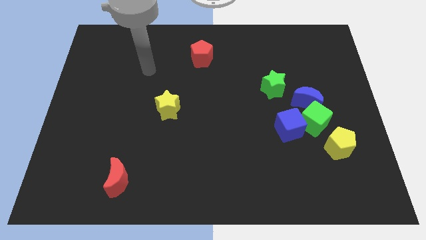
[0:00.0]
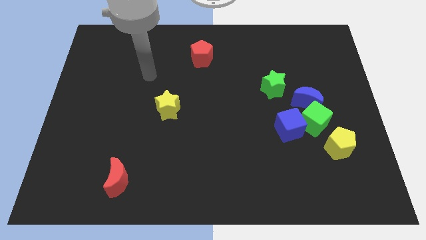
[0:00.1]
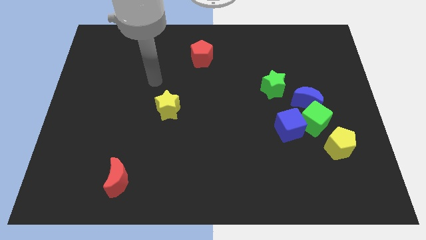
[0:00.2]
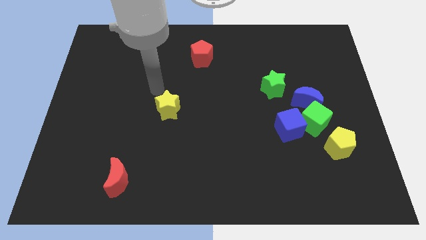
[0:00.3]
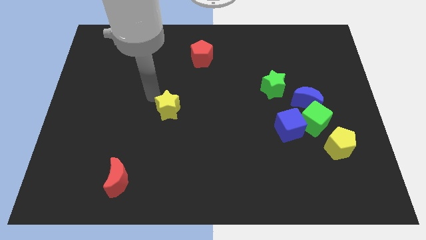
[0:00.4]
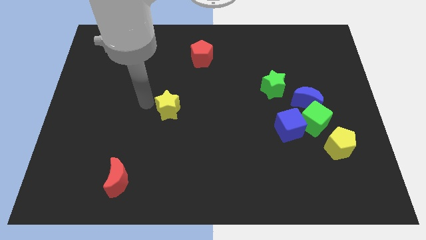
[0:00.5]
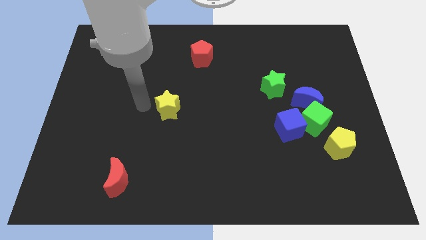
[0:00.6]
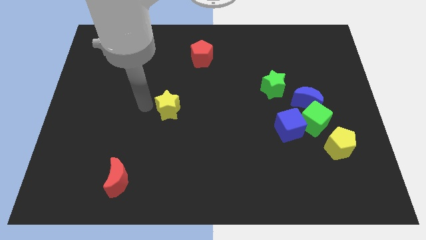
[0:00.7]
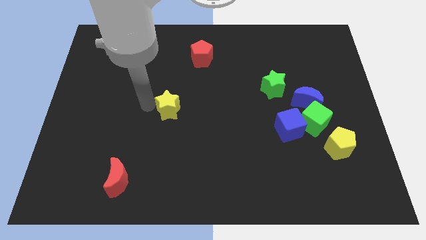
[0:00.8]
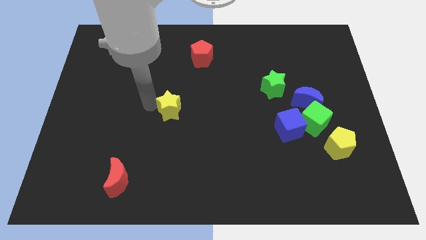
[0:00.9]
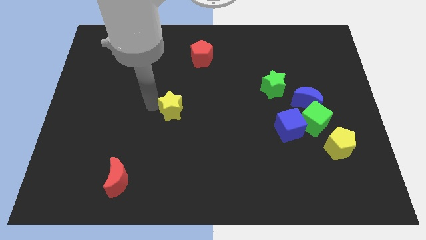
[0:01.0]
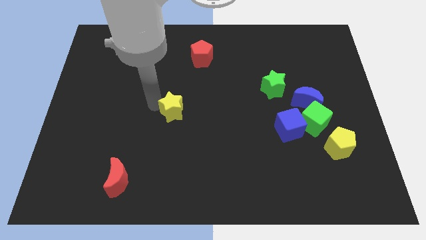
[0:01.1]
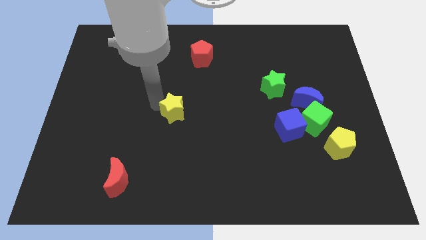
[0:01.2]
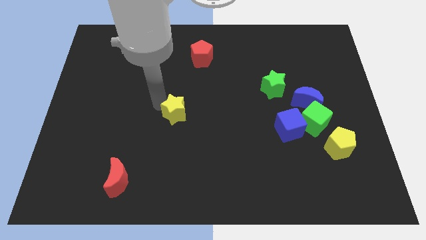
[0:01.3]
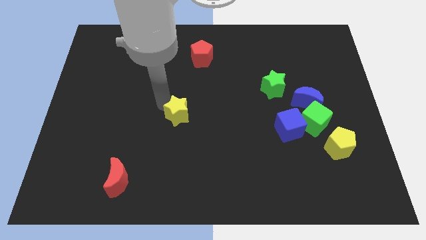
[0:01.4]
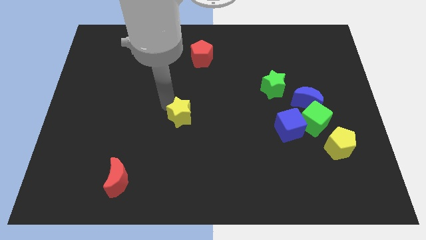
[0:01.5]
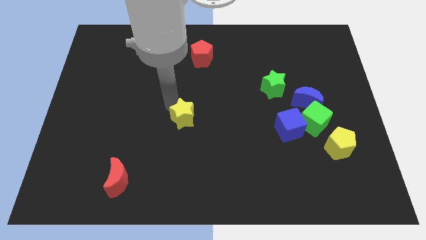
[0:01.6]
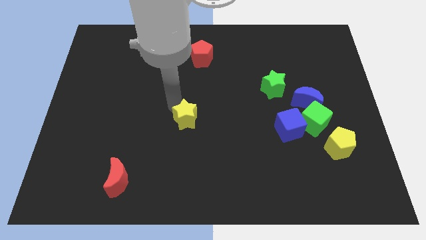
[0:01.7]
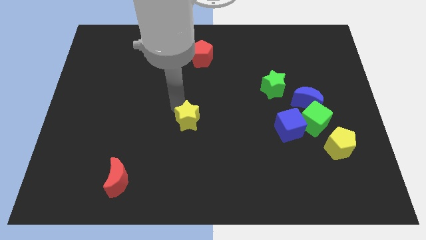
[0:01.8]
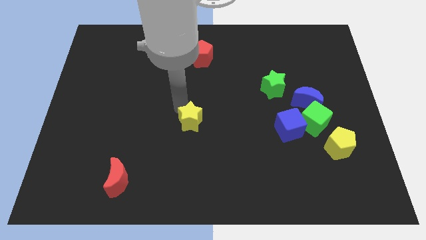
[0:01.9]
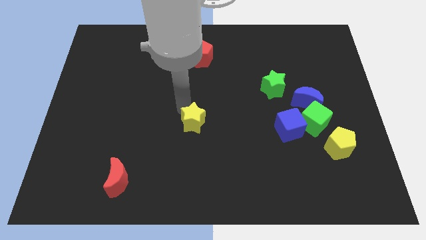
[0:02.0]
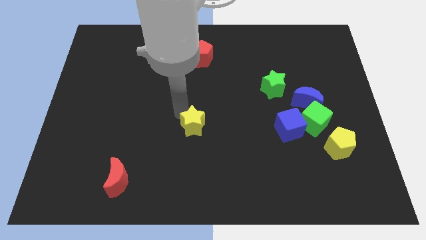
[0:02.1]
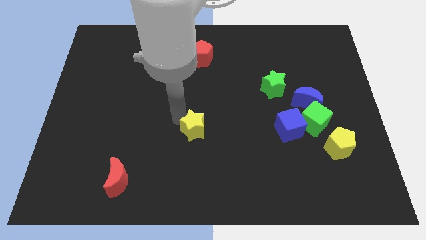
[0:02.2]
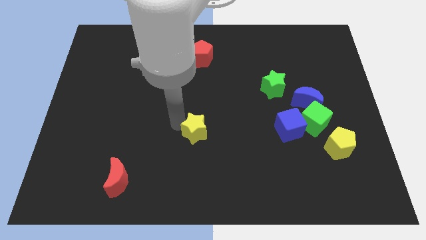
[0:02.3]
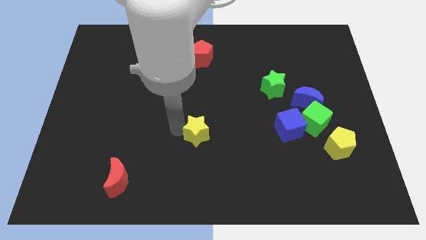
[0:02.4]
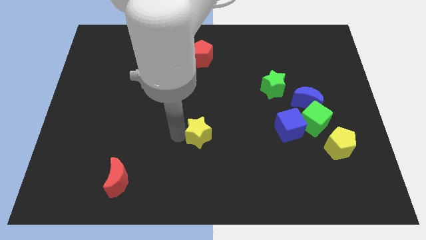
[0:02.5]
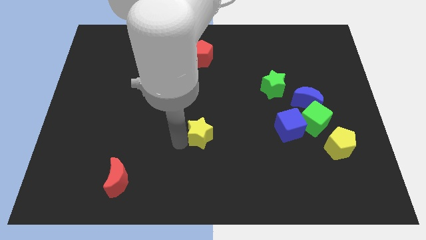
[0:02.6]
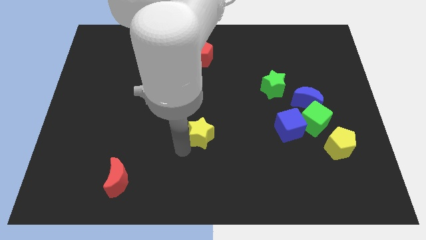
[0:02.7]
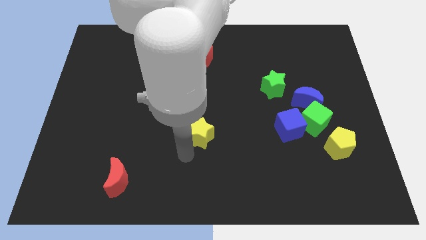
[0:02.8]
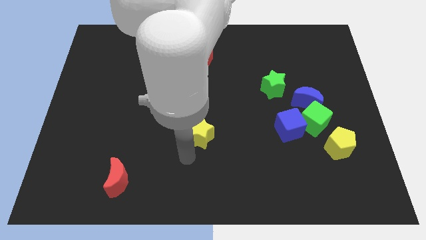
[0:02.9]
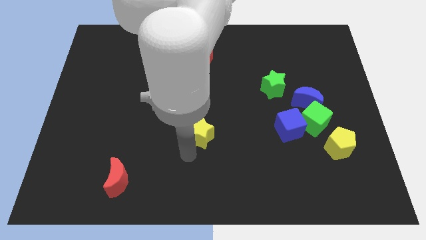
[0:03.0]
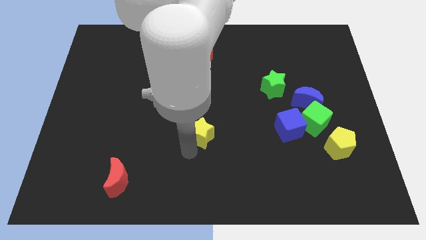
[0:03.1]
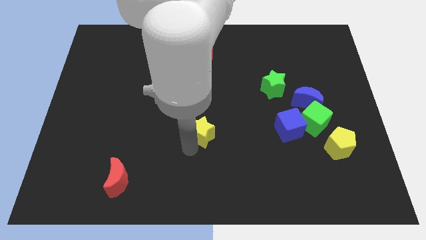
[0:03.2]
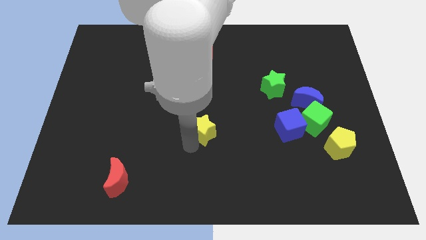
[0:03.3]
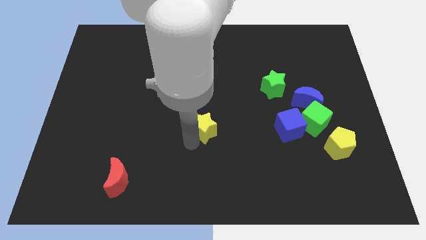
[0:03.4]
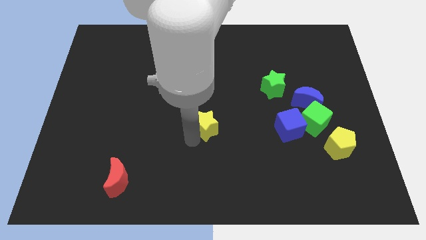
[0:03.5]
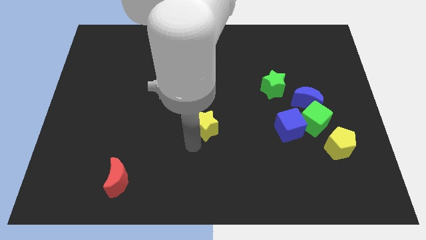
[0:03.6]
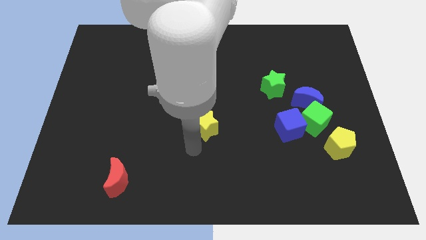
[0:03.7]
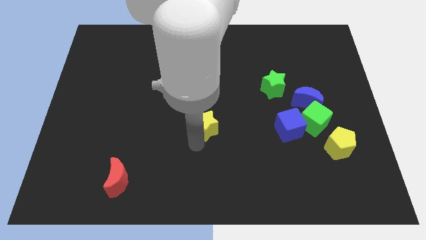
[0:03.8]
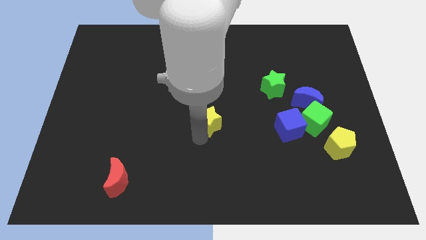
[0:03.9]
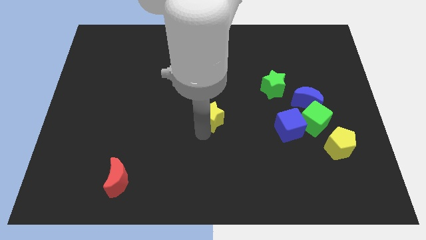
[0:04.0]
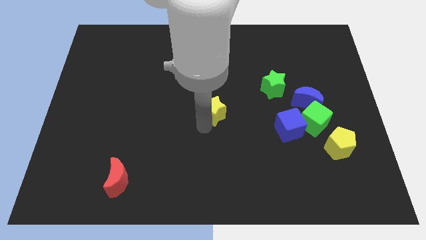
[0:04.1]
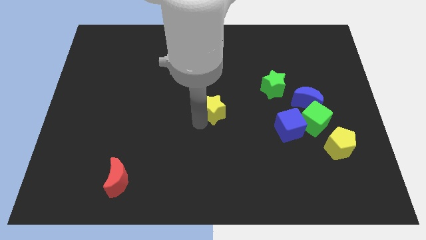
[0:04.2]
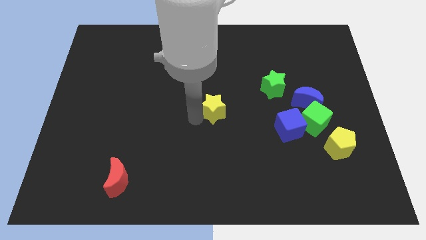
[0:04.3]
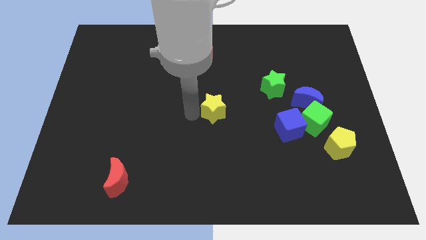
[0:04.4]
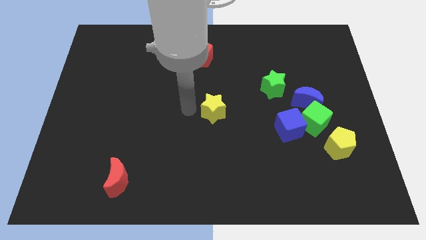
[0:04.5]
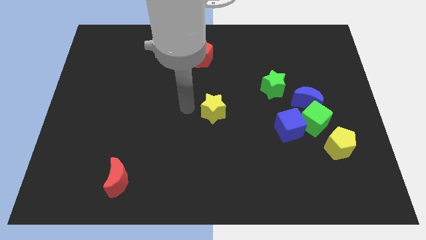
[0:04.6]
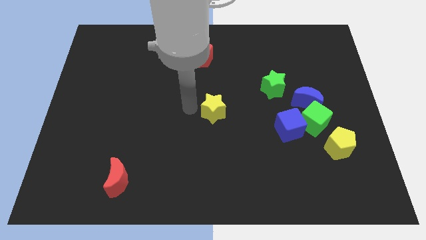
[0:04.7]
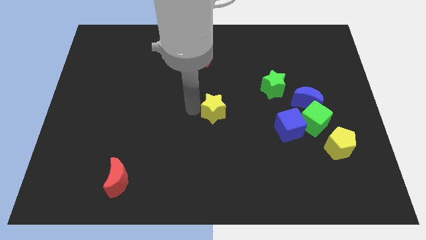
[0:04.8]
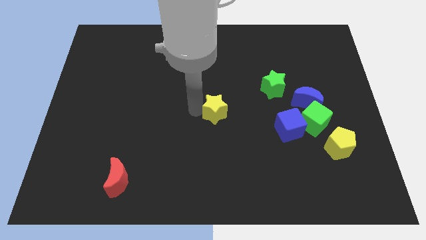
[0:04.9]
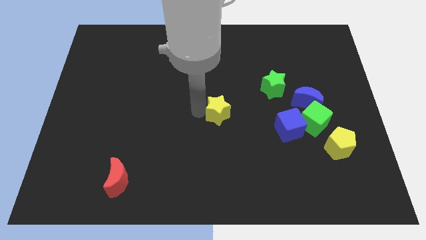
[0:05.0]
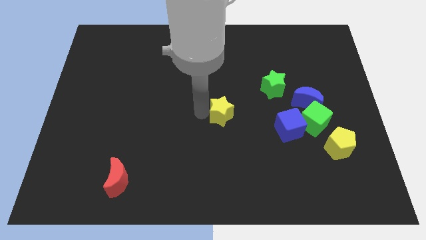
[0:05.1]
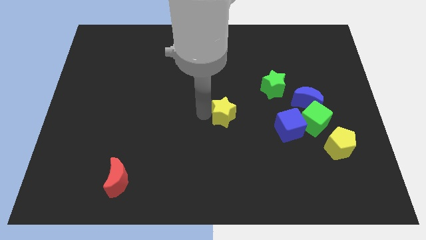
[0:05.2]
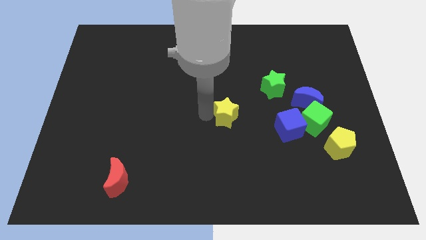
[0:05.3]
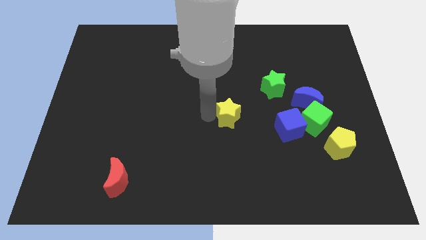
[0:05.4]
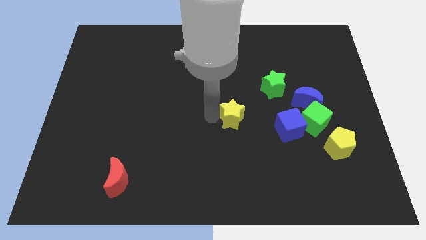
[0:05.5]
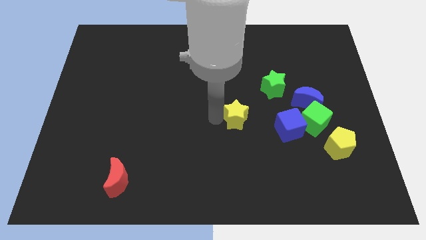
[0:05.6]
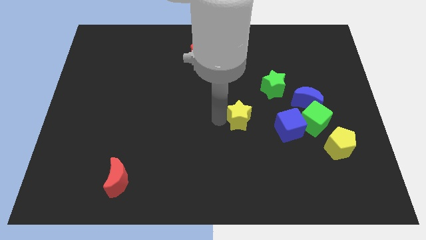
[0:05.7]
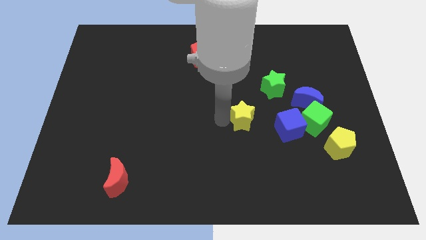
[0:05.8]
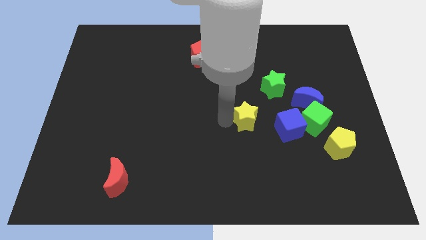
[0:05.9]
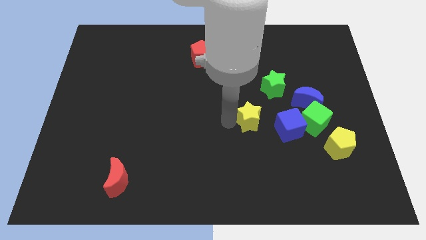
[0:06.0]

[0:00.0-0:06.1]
put the yellow star to the top left side of the blue cube

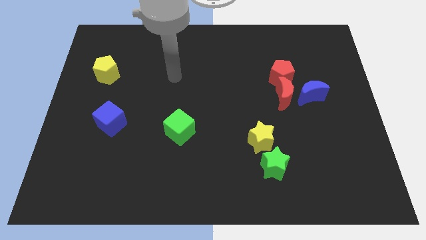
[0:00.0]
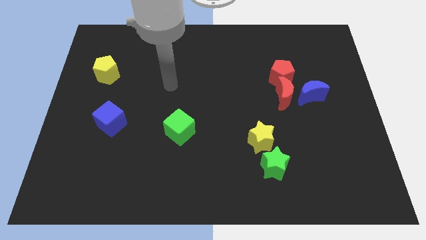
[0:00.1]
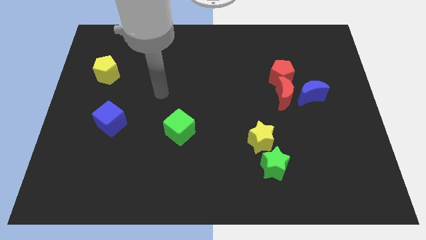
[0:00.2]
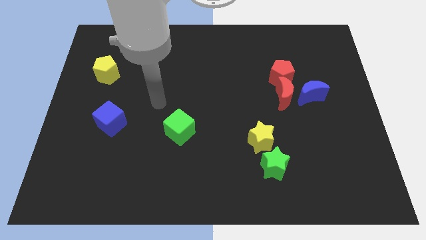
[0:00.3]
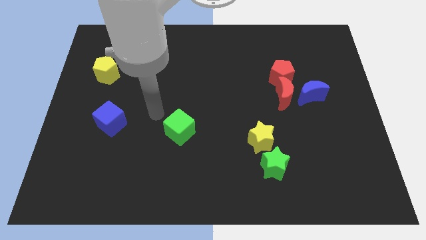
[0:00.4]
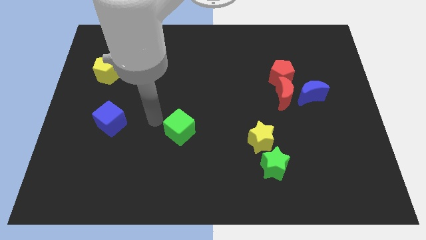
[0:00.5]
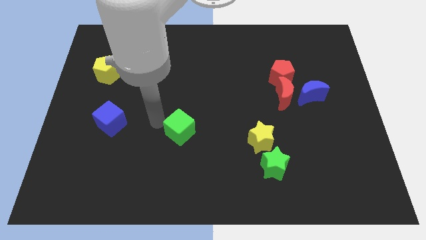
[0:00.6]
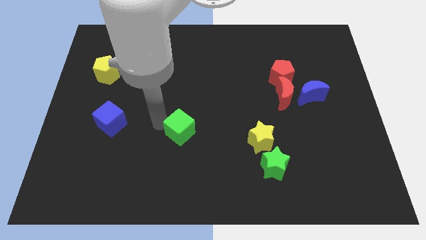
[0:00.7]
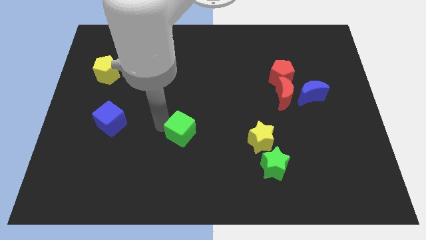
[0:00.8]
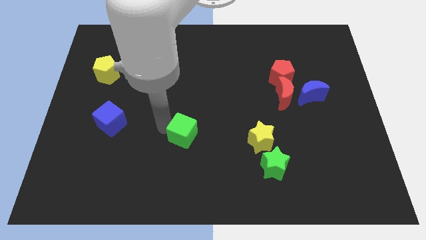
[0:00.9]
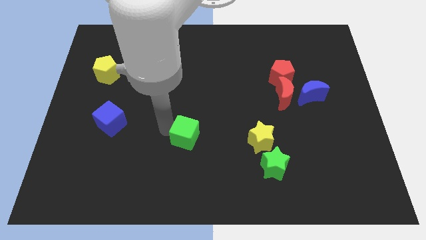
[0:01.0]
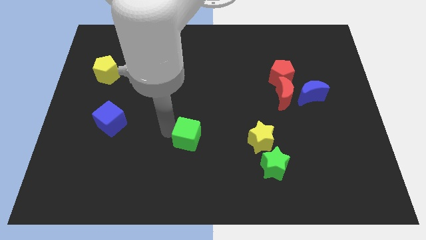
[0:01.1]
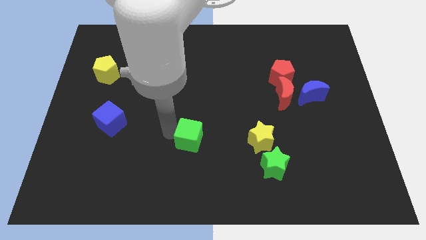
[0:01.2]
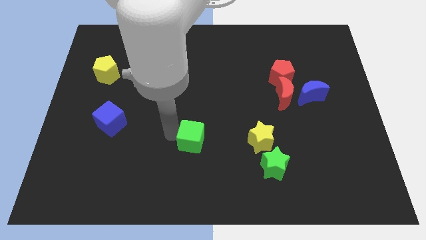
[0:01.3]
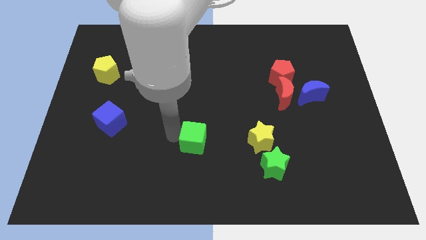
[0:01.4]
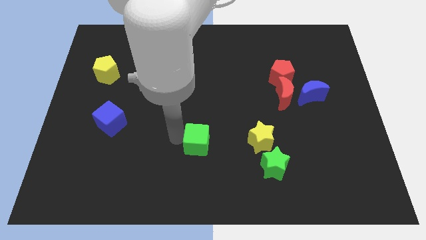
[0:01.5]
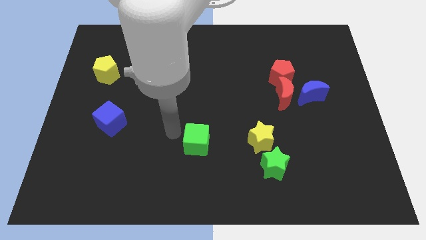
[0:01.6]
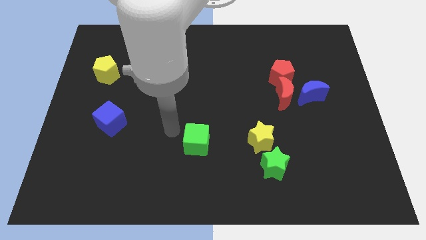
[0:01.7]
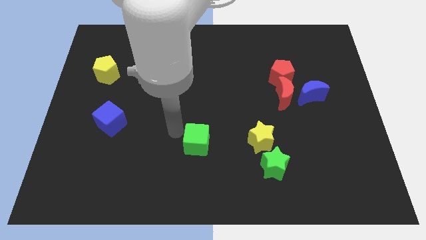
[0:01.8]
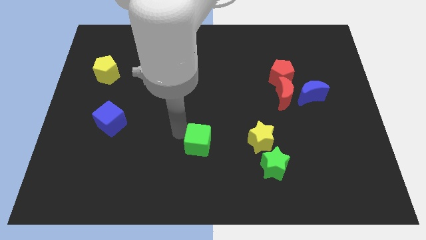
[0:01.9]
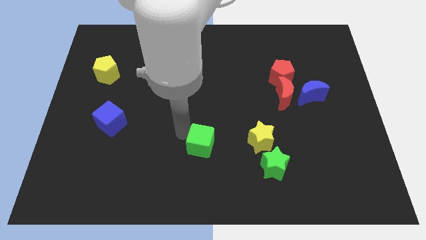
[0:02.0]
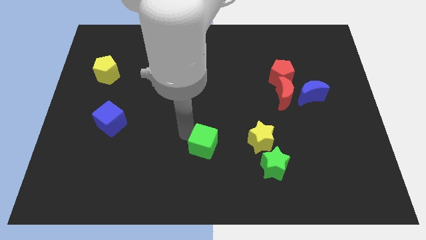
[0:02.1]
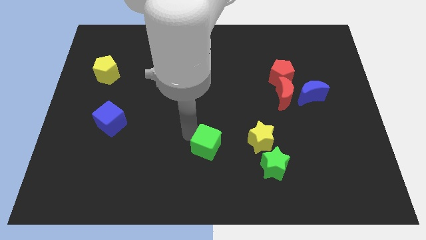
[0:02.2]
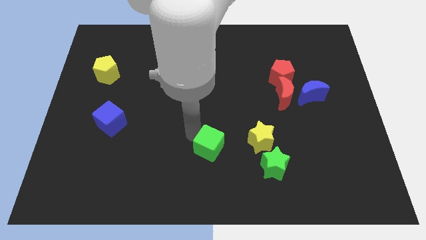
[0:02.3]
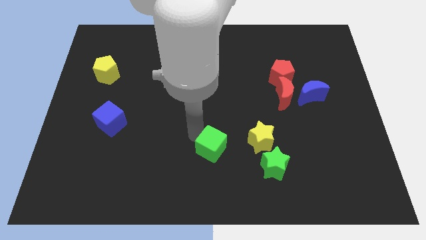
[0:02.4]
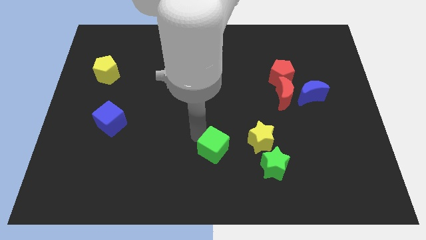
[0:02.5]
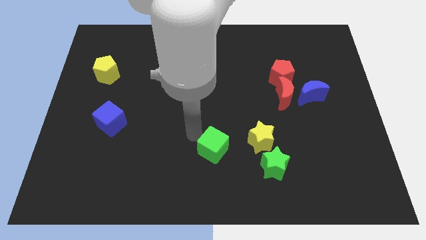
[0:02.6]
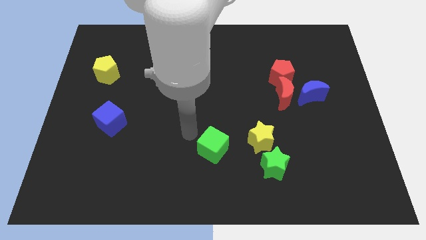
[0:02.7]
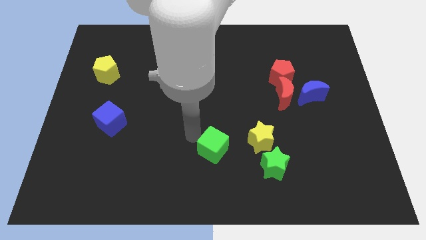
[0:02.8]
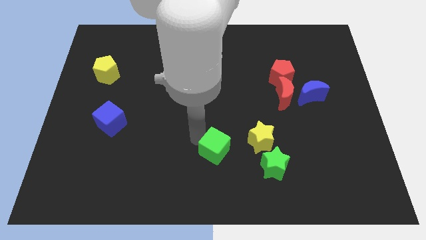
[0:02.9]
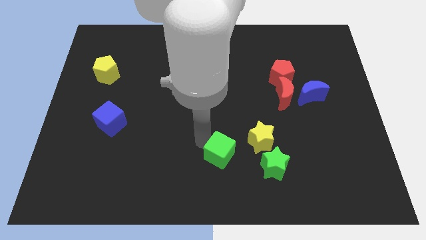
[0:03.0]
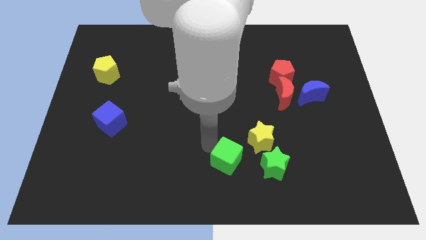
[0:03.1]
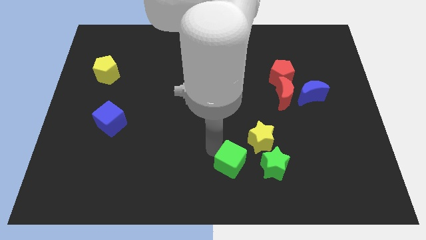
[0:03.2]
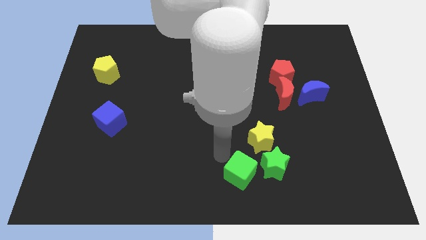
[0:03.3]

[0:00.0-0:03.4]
move the green cube to the bottom side of the yellow star
